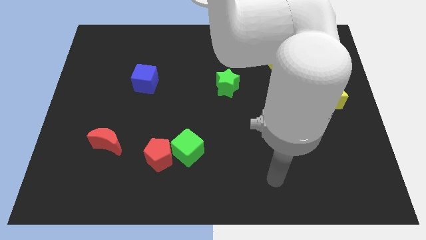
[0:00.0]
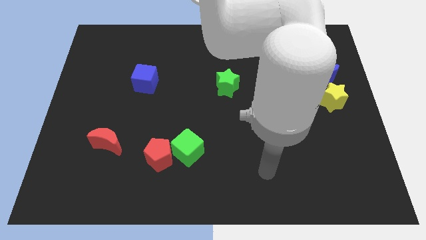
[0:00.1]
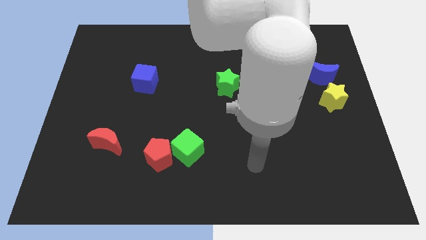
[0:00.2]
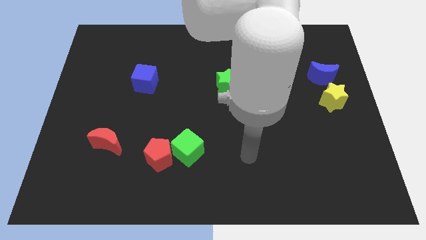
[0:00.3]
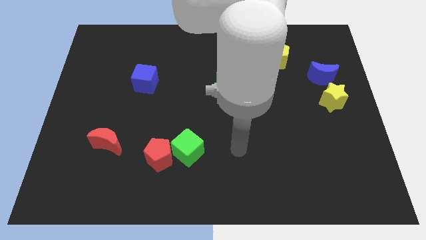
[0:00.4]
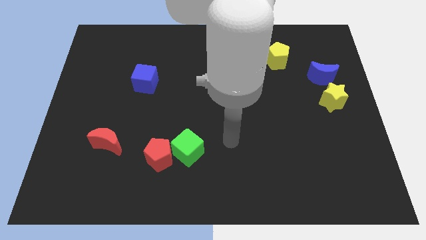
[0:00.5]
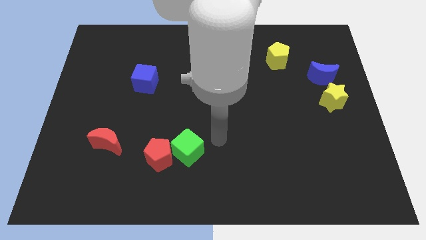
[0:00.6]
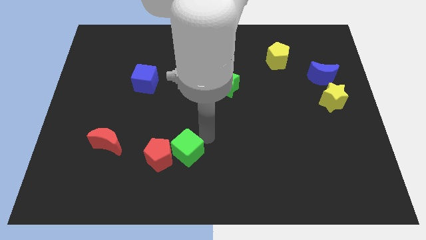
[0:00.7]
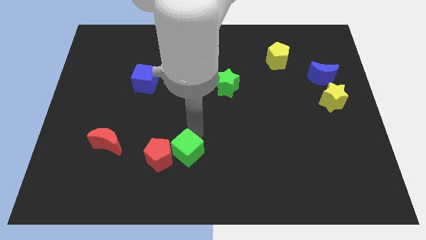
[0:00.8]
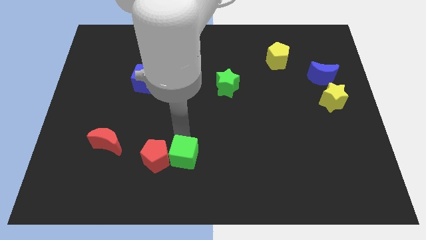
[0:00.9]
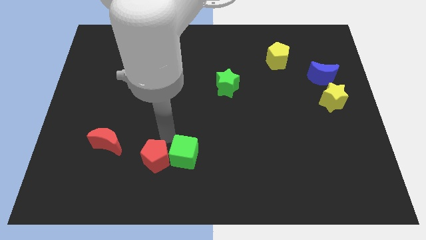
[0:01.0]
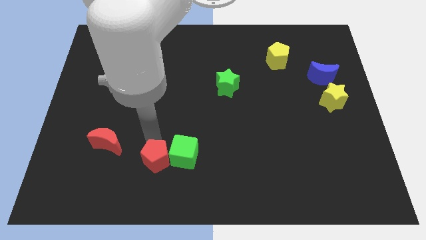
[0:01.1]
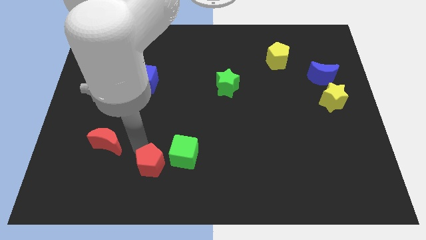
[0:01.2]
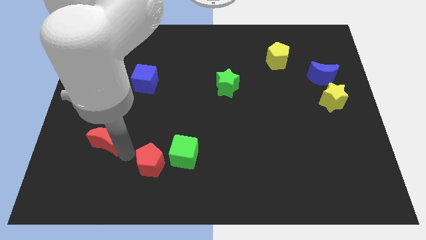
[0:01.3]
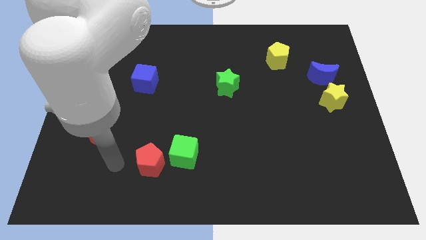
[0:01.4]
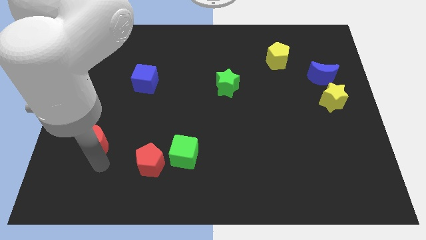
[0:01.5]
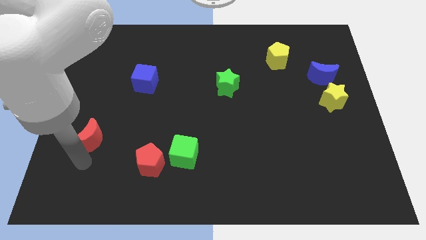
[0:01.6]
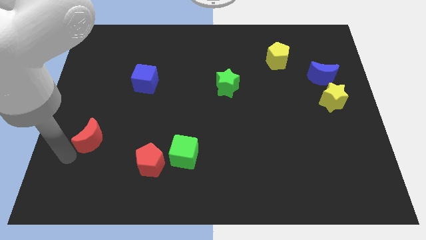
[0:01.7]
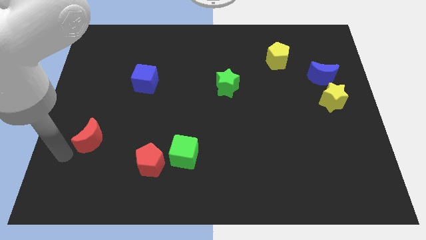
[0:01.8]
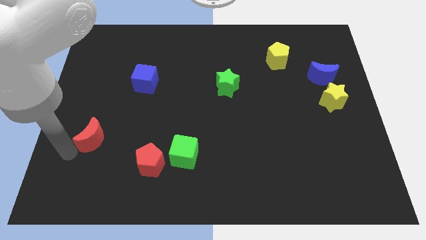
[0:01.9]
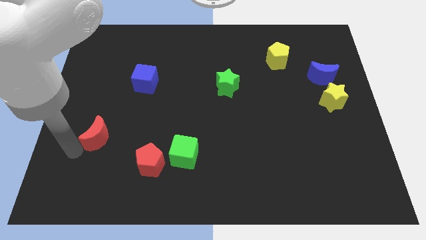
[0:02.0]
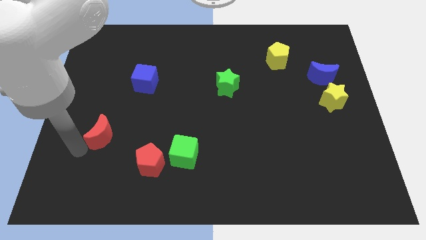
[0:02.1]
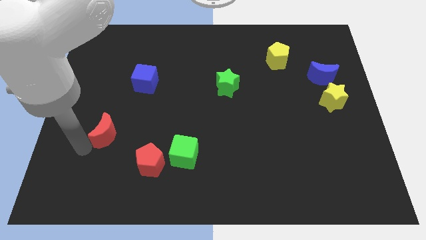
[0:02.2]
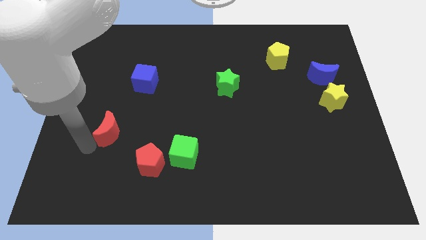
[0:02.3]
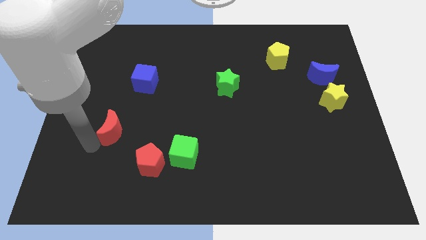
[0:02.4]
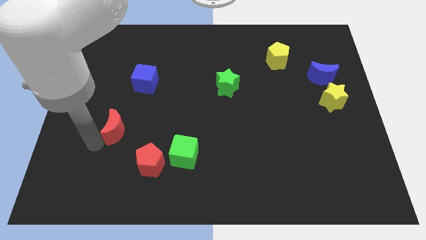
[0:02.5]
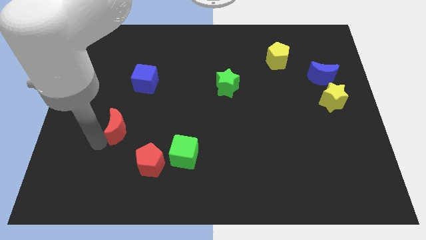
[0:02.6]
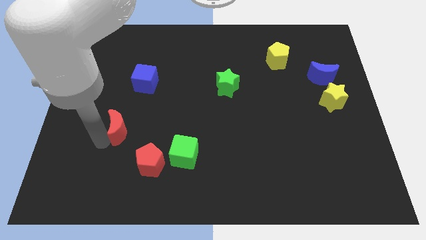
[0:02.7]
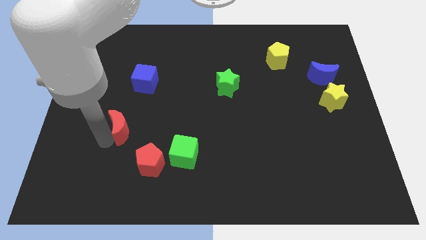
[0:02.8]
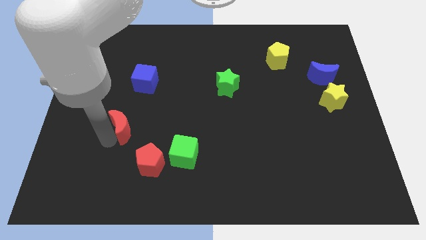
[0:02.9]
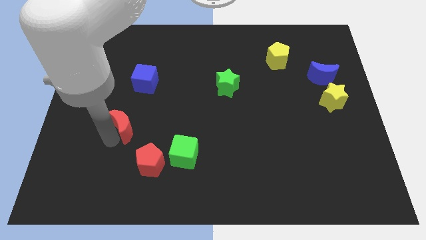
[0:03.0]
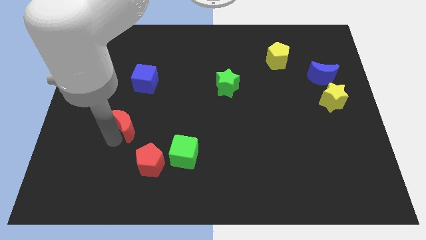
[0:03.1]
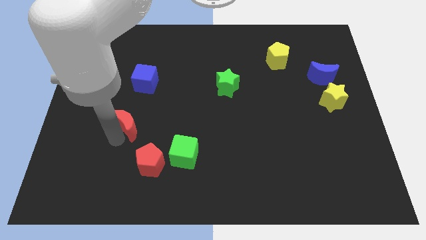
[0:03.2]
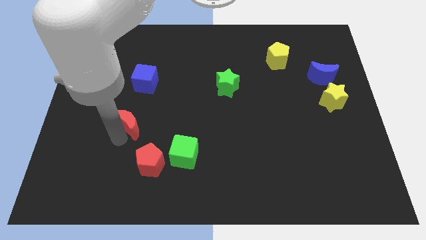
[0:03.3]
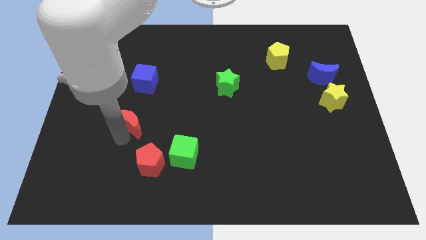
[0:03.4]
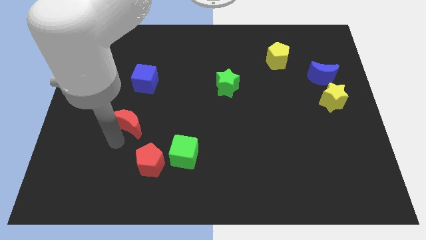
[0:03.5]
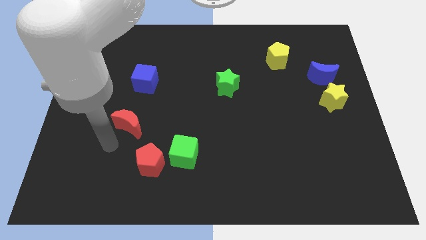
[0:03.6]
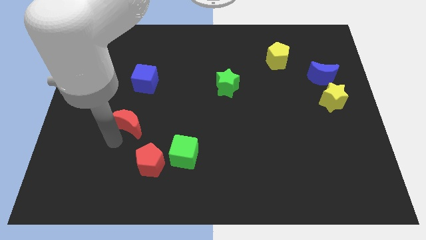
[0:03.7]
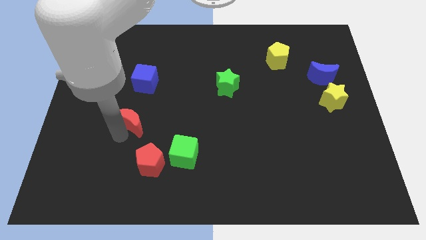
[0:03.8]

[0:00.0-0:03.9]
slightly slide the red moon diagonally upwards and to the right

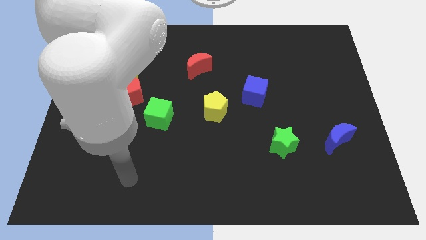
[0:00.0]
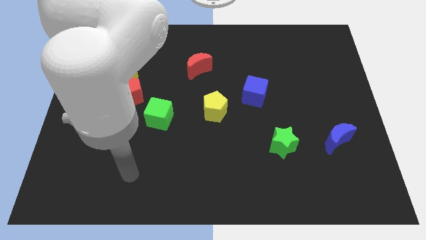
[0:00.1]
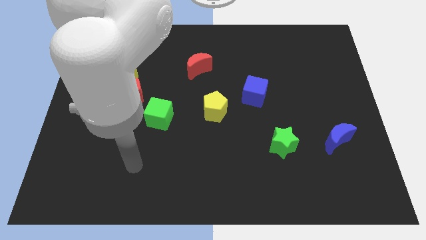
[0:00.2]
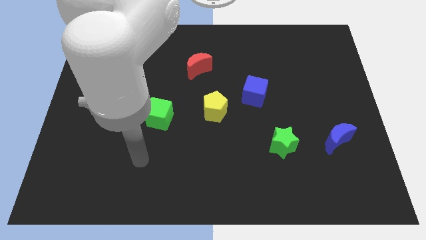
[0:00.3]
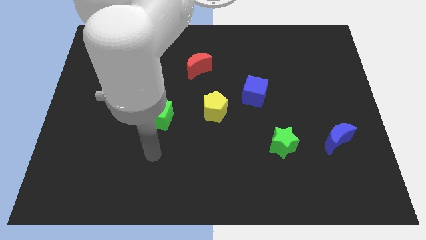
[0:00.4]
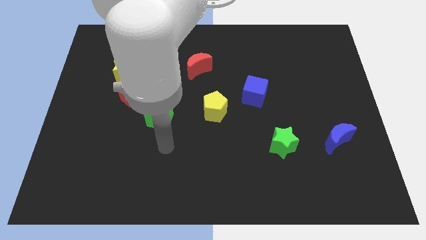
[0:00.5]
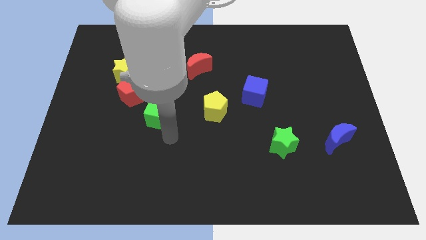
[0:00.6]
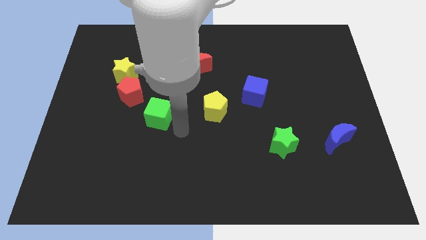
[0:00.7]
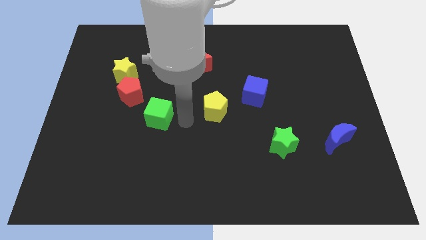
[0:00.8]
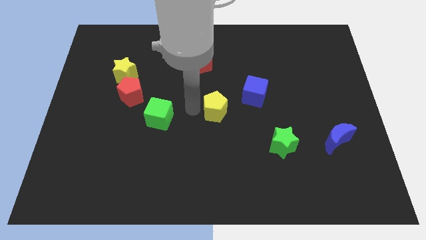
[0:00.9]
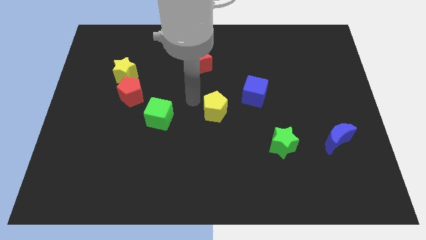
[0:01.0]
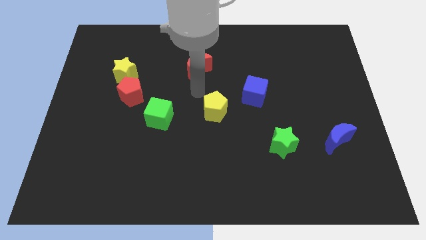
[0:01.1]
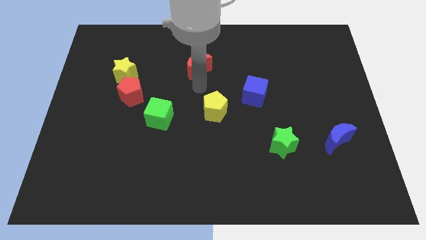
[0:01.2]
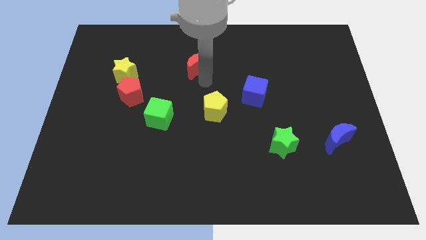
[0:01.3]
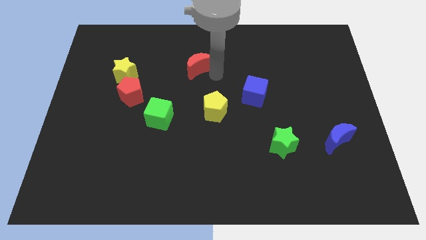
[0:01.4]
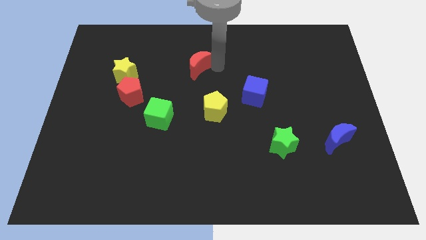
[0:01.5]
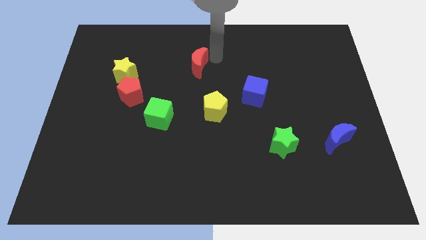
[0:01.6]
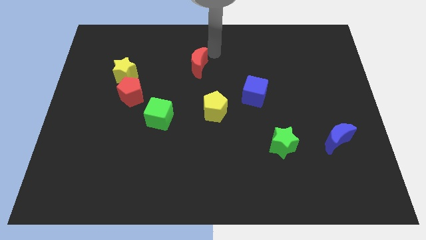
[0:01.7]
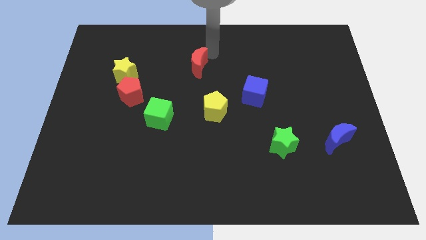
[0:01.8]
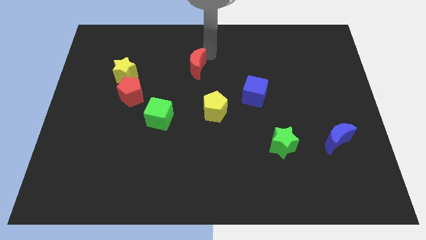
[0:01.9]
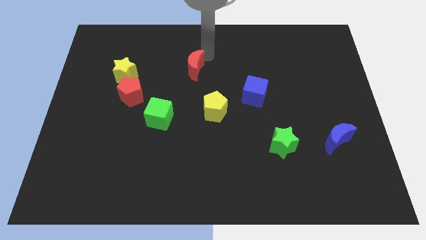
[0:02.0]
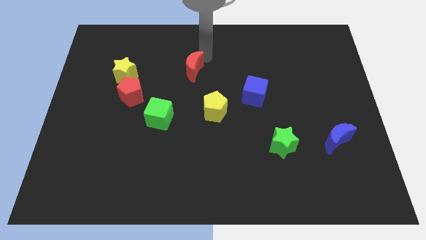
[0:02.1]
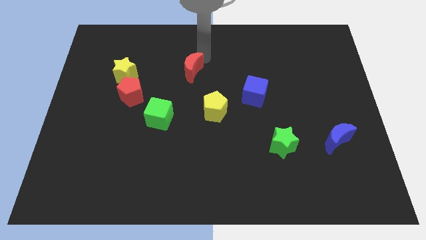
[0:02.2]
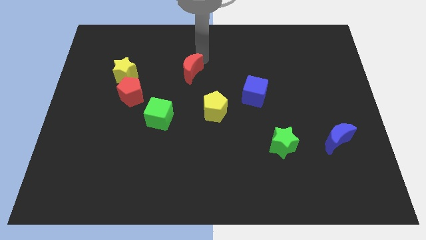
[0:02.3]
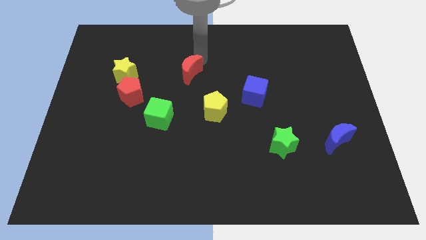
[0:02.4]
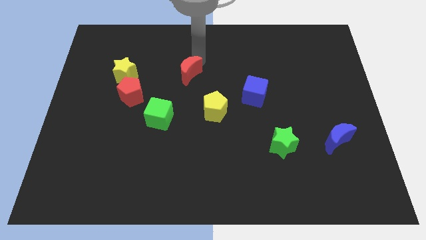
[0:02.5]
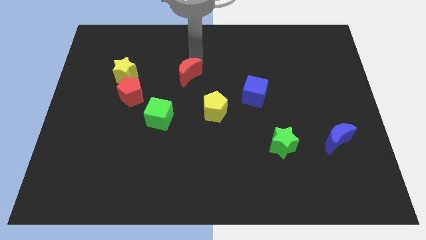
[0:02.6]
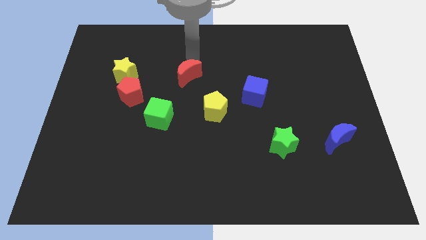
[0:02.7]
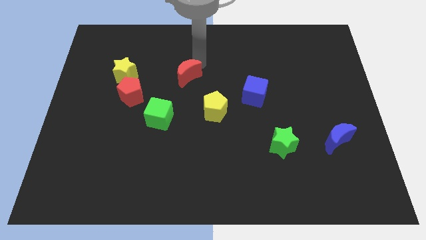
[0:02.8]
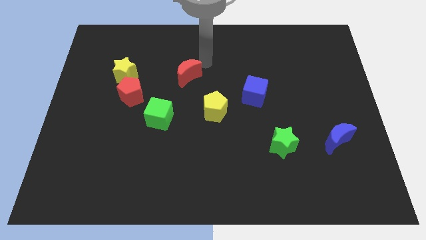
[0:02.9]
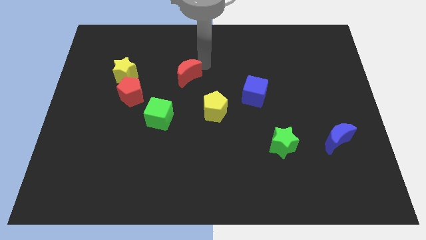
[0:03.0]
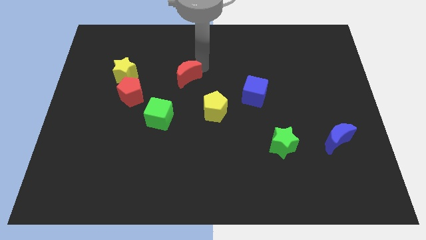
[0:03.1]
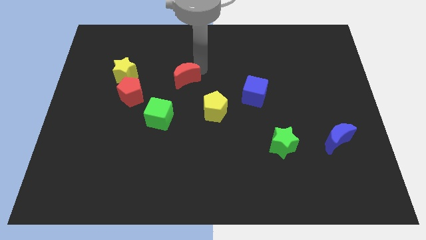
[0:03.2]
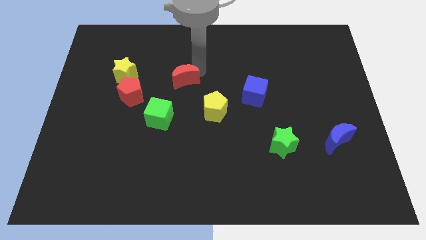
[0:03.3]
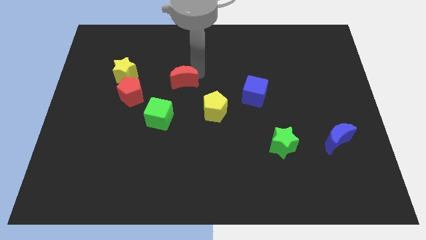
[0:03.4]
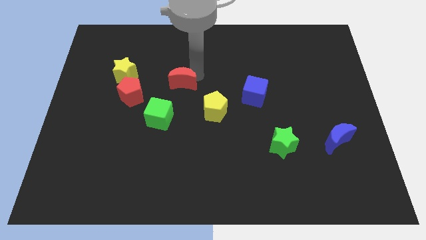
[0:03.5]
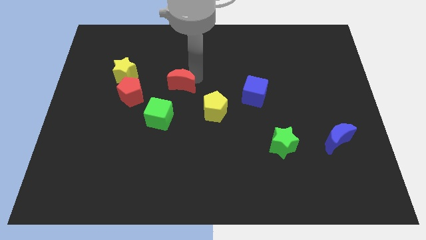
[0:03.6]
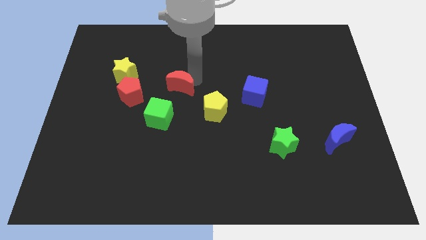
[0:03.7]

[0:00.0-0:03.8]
move the red moon somewhat diagonally downwards and to the left

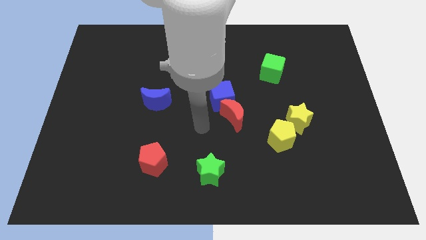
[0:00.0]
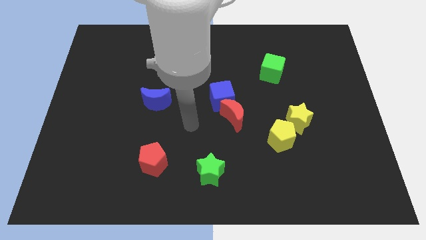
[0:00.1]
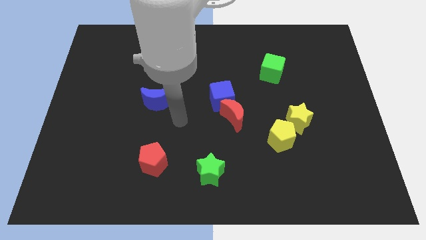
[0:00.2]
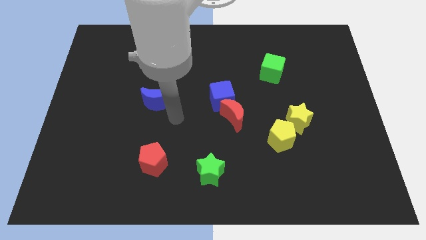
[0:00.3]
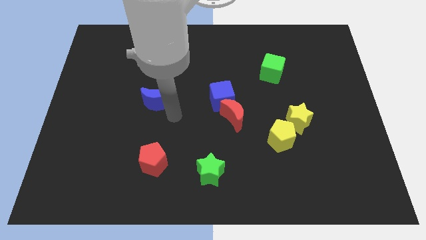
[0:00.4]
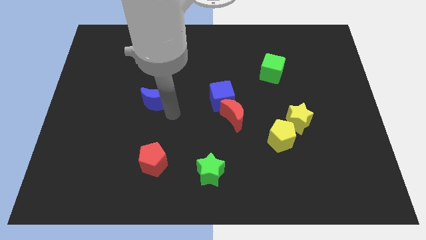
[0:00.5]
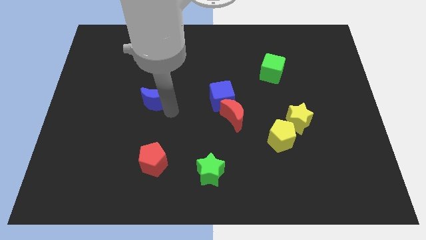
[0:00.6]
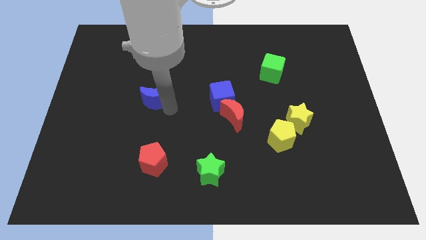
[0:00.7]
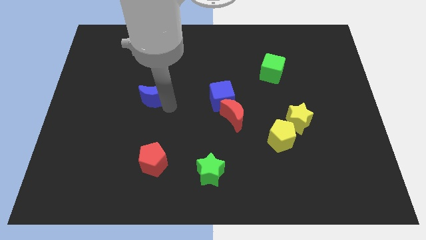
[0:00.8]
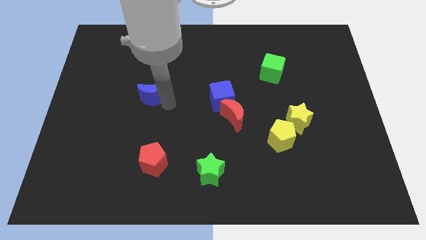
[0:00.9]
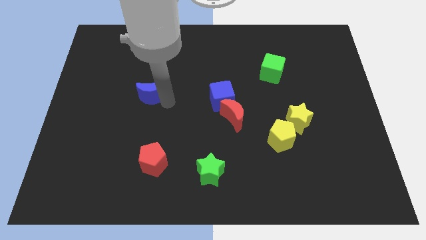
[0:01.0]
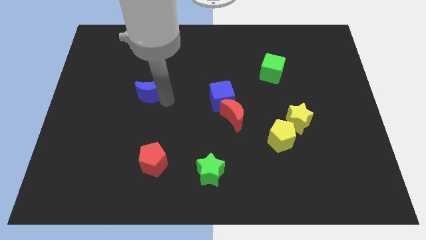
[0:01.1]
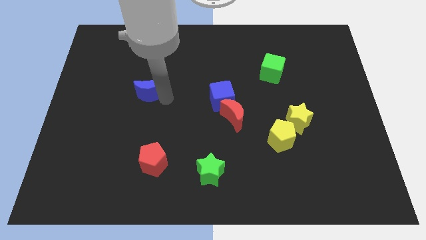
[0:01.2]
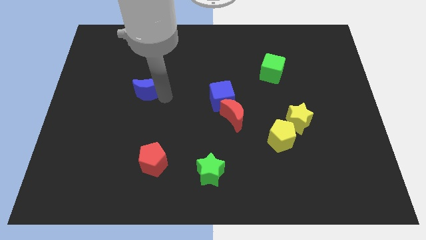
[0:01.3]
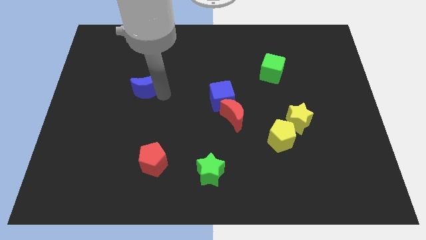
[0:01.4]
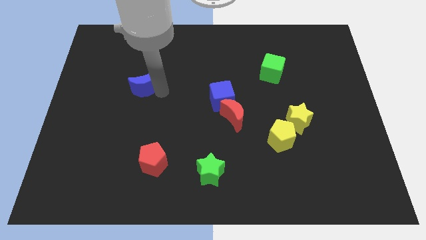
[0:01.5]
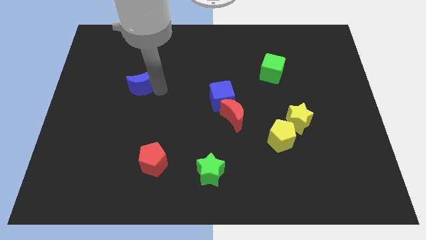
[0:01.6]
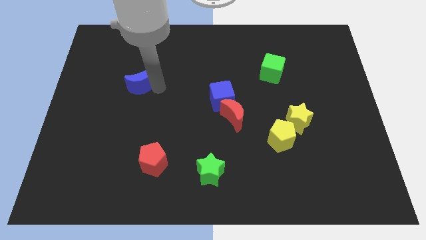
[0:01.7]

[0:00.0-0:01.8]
slide the blue moon a little bit diagonally upwards and left
